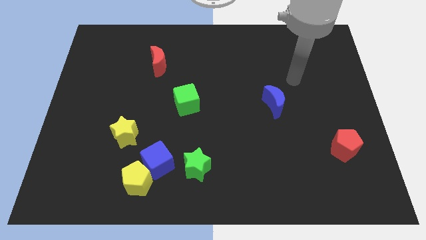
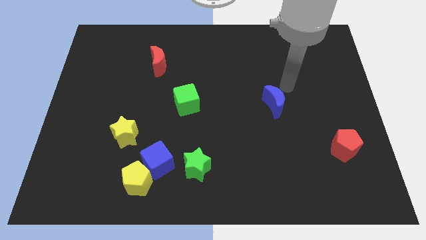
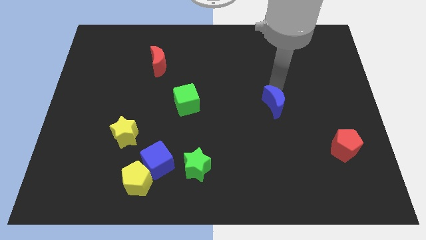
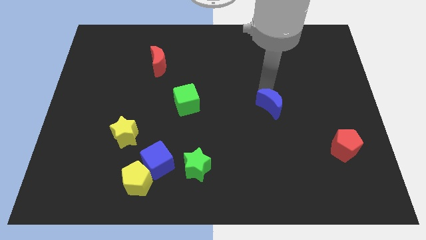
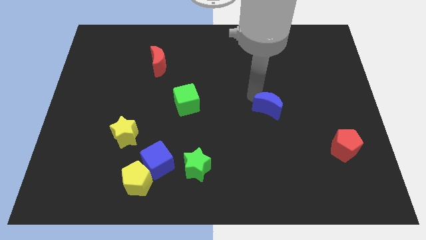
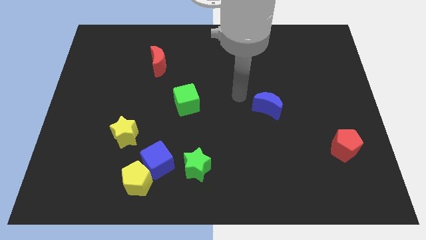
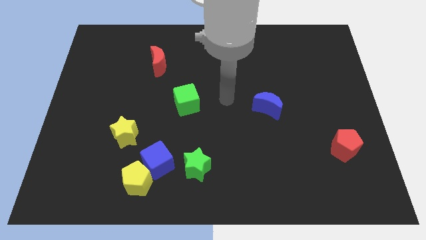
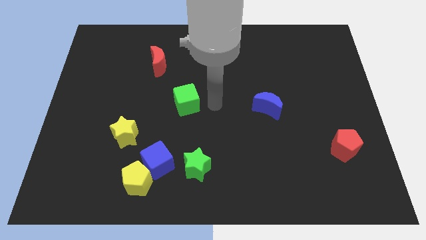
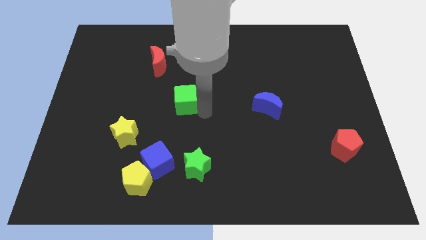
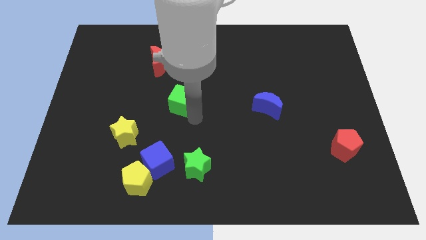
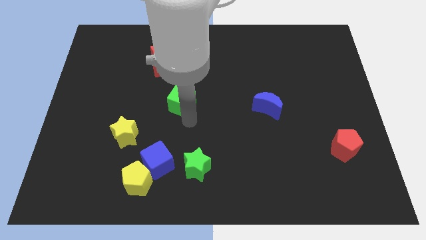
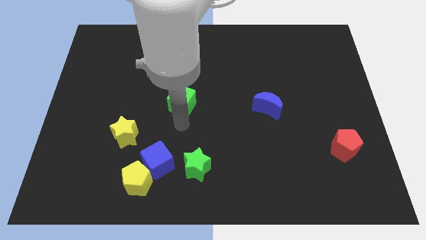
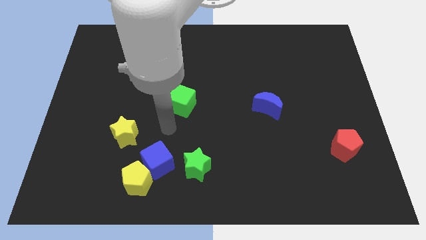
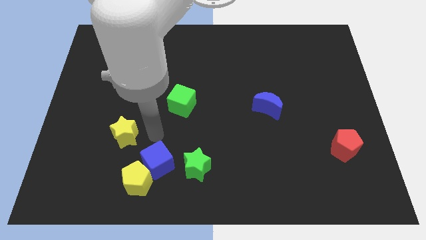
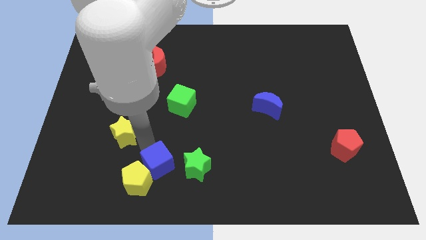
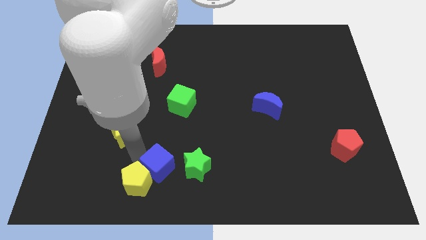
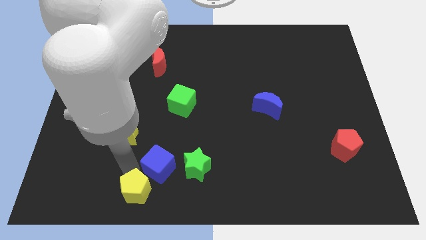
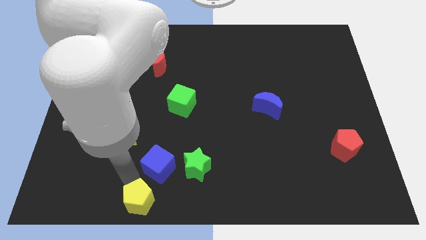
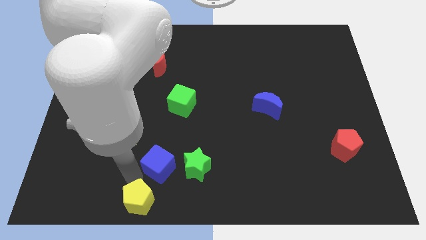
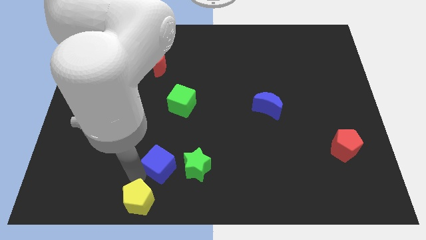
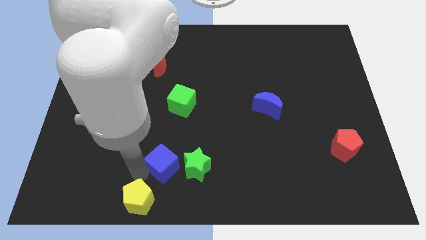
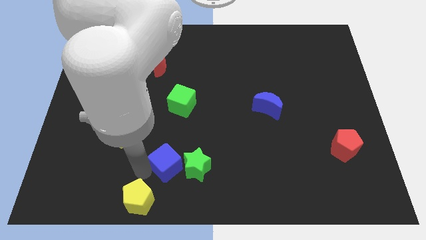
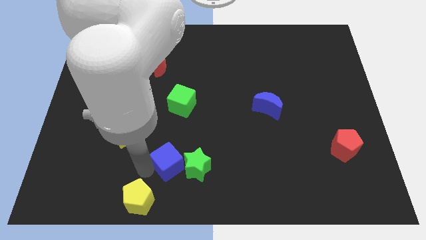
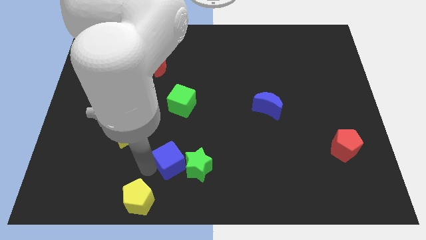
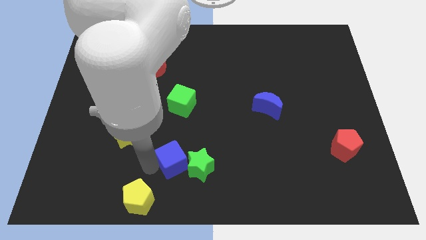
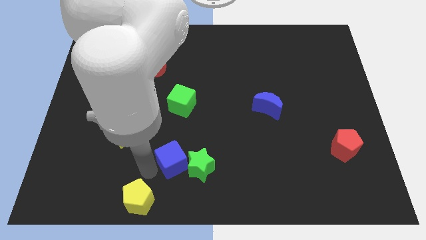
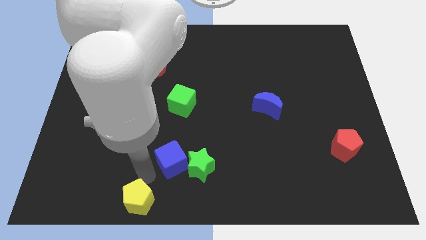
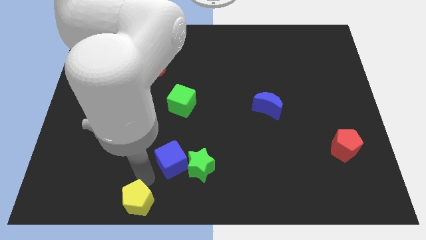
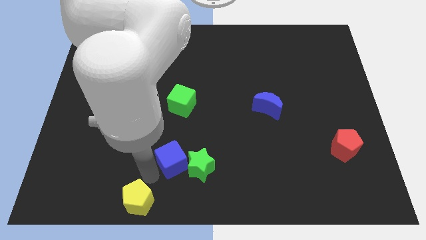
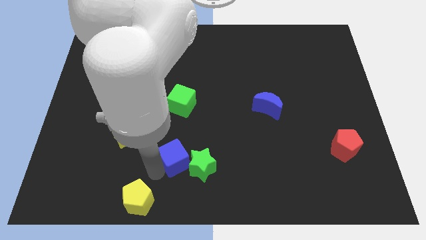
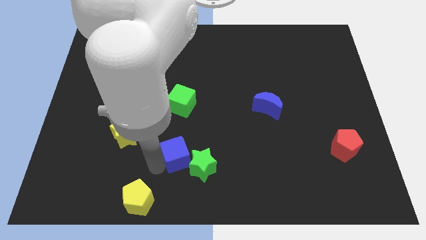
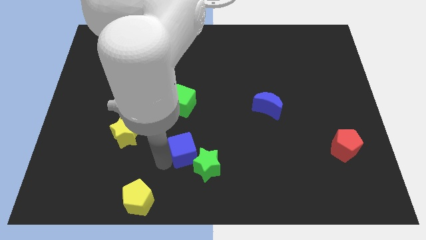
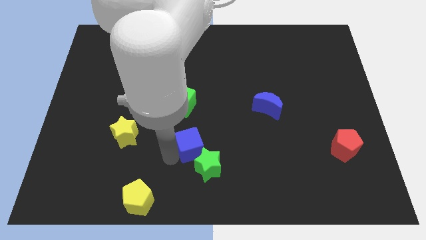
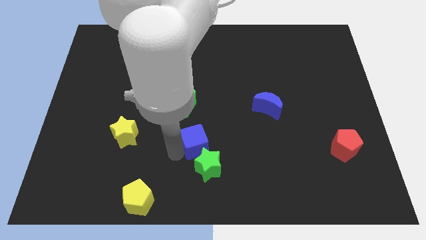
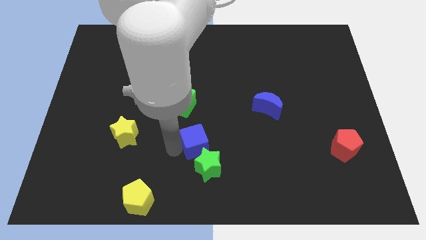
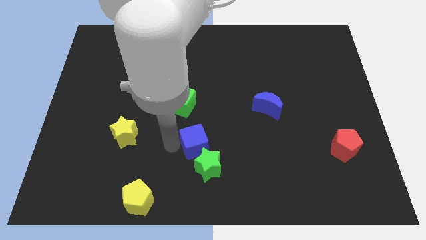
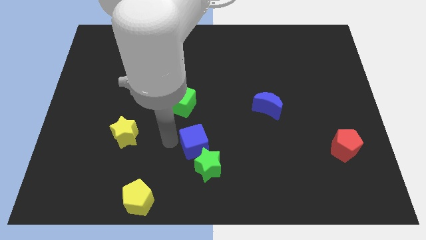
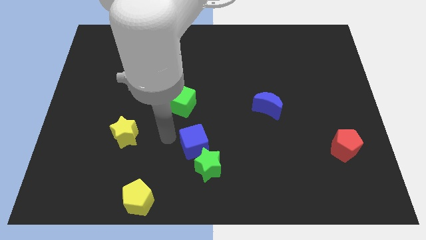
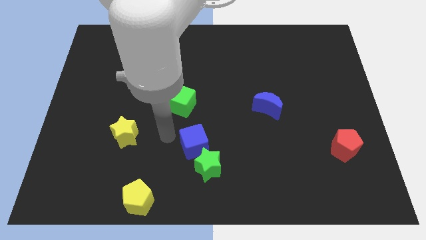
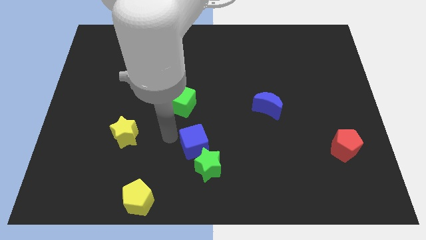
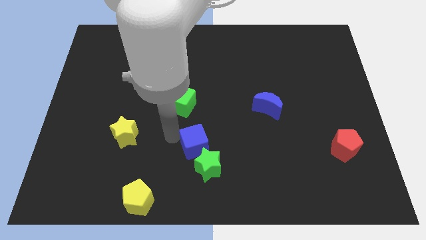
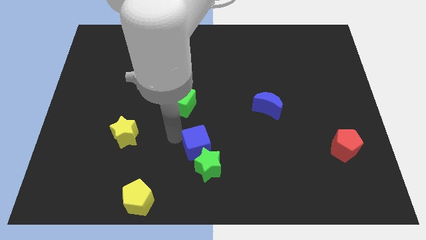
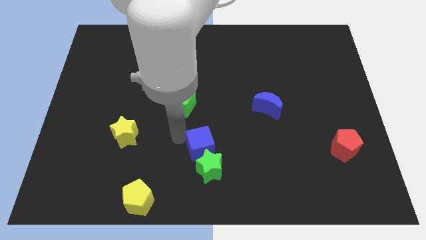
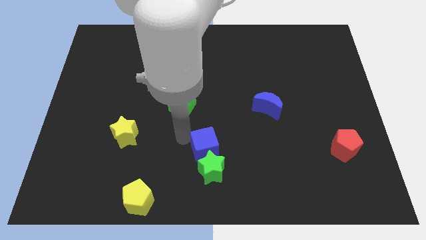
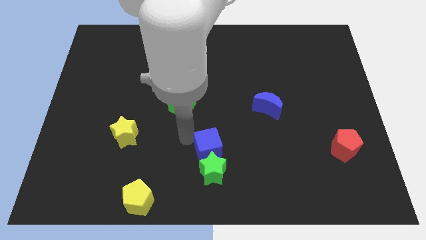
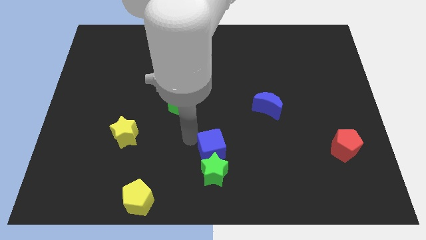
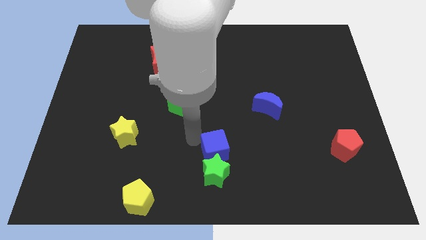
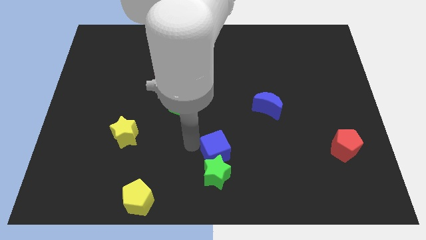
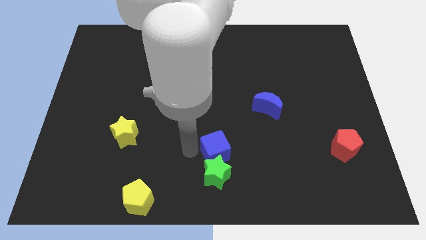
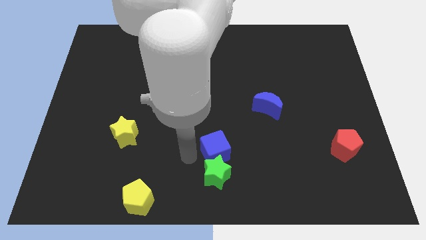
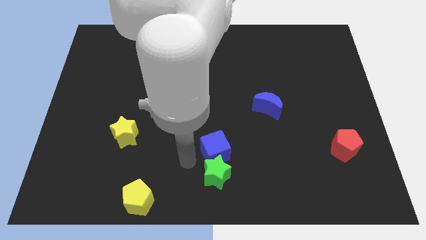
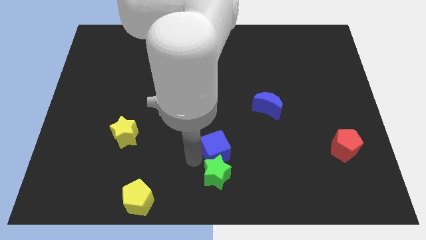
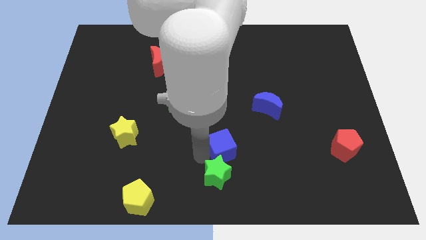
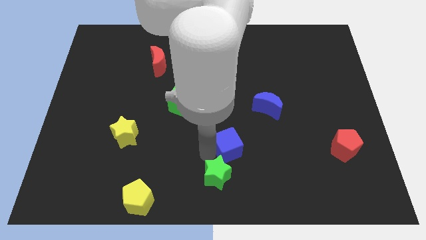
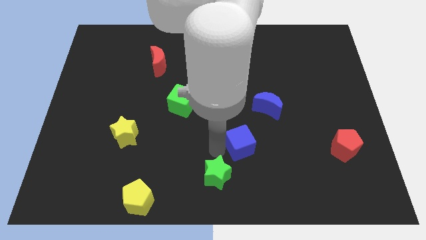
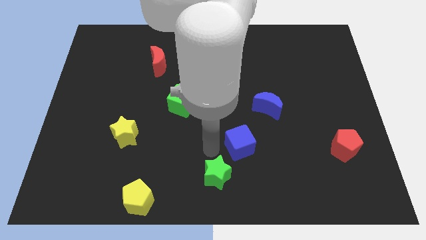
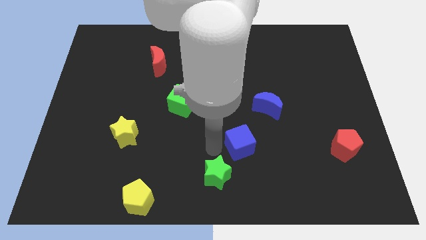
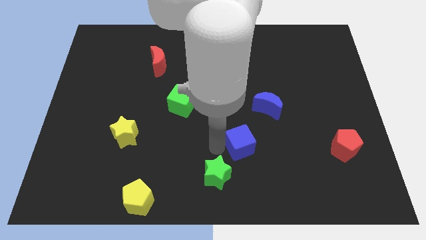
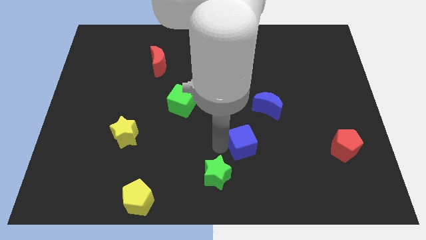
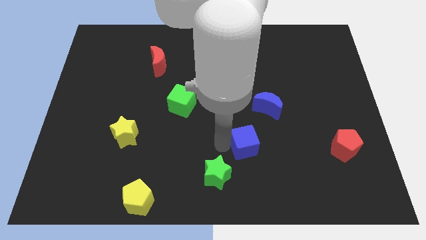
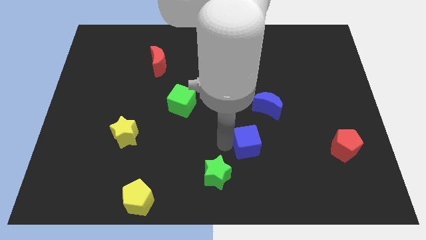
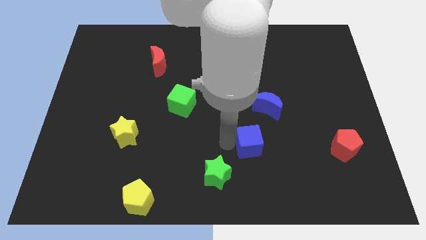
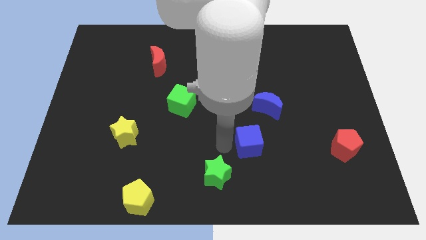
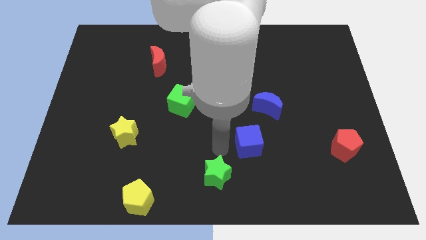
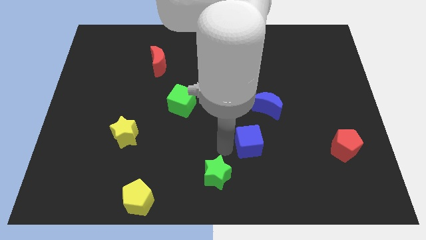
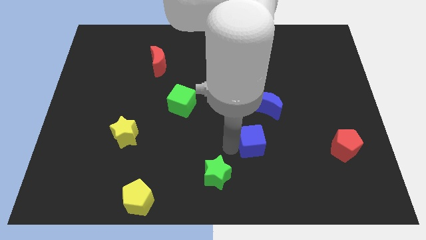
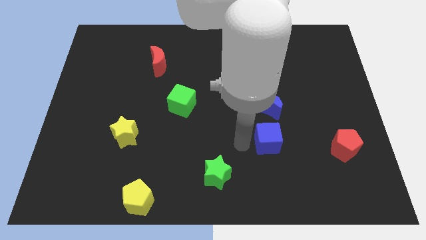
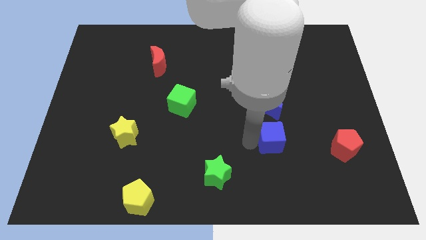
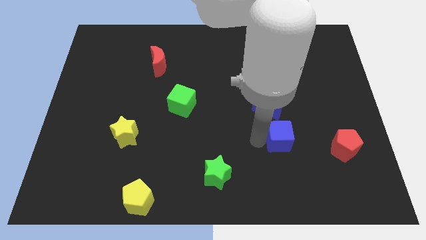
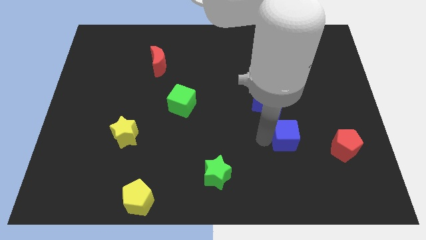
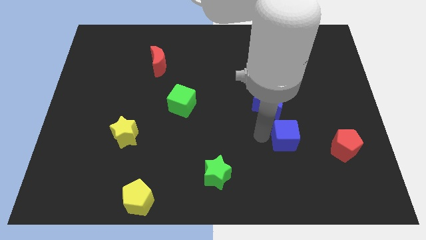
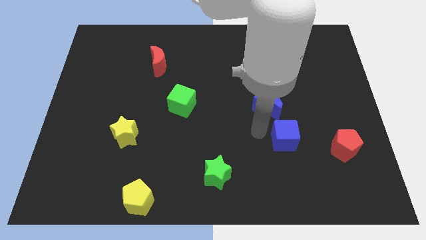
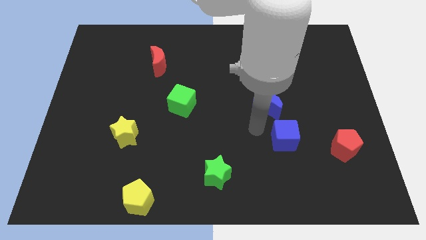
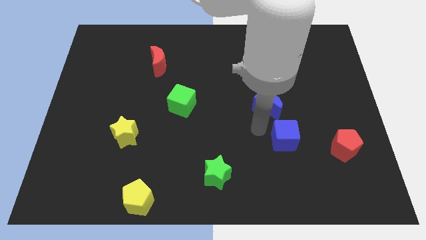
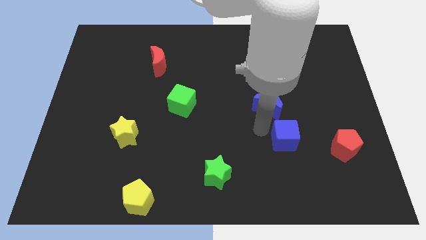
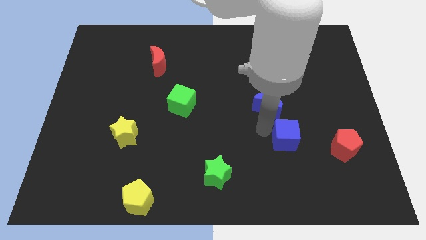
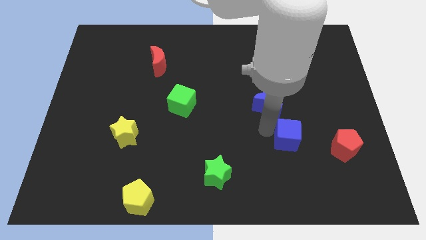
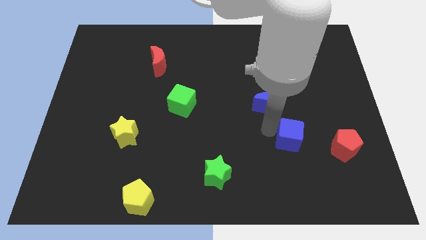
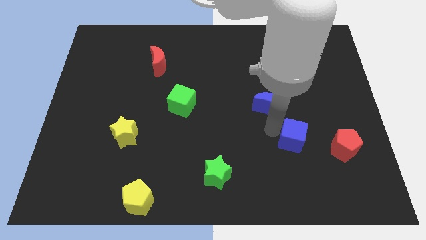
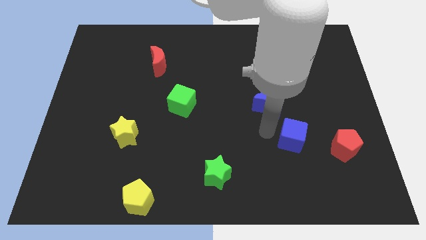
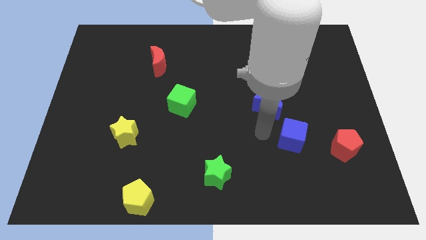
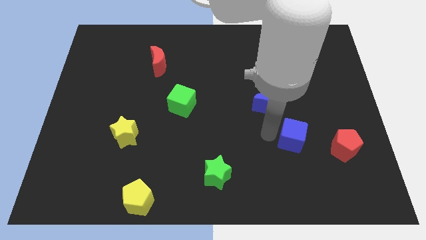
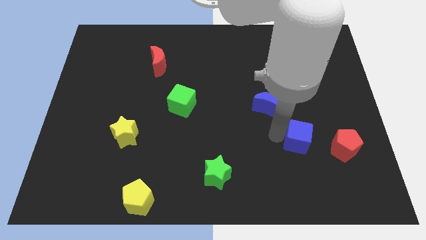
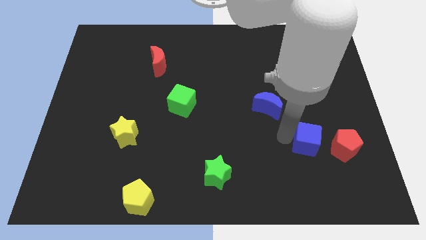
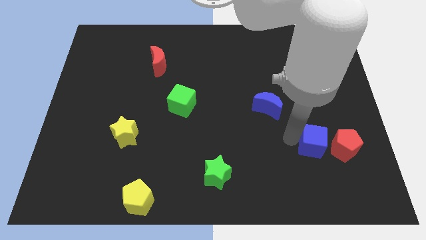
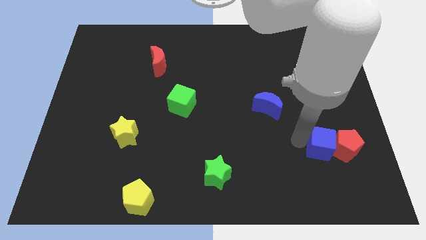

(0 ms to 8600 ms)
push the blue cube next to the red pentagon
